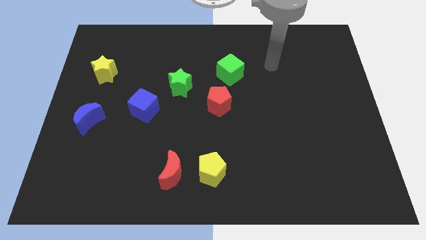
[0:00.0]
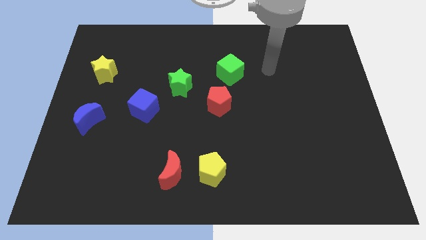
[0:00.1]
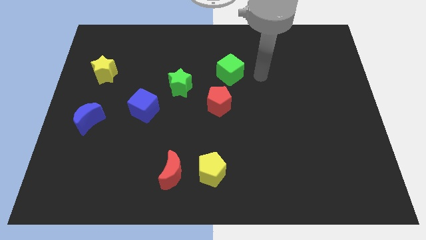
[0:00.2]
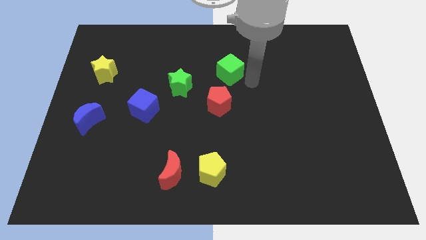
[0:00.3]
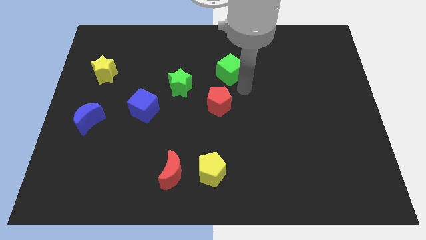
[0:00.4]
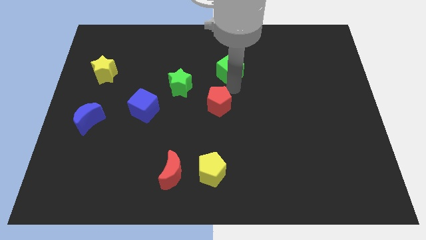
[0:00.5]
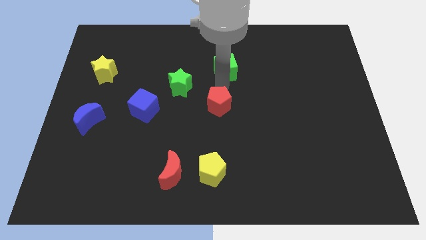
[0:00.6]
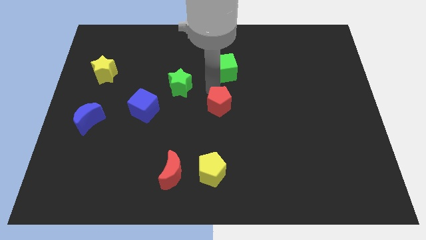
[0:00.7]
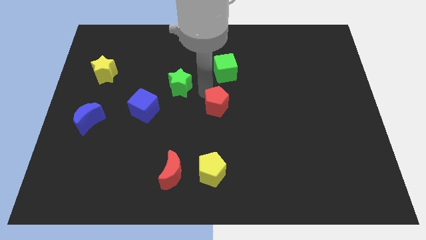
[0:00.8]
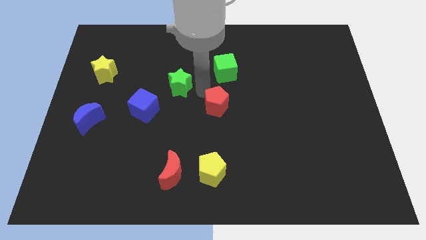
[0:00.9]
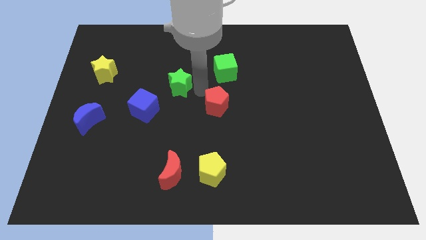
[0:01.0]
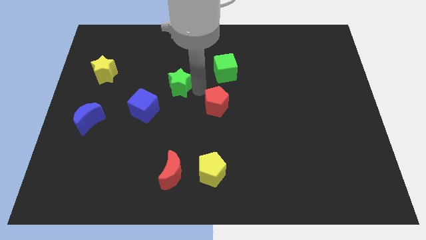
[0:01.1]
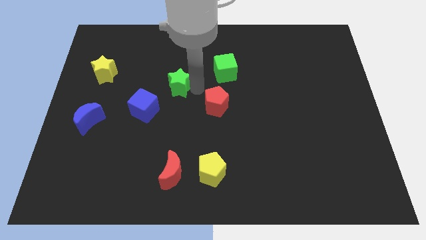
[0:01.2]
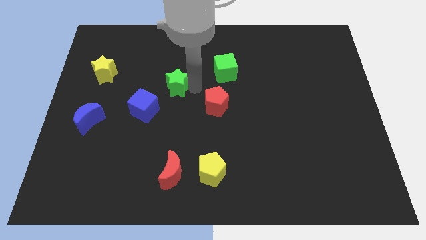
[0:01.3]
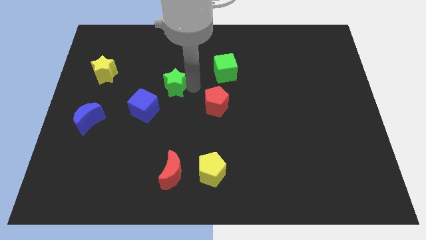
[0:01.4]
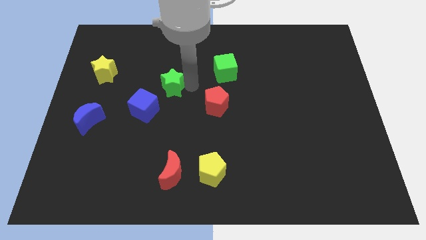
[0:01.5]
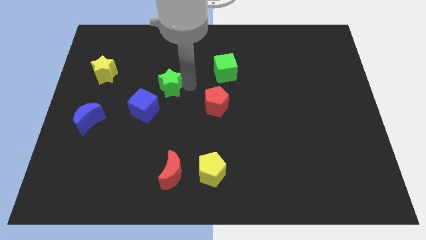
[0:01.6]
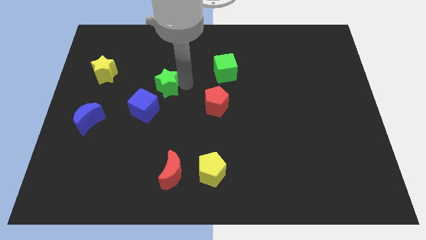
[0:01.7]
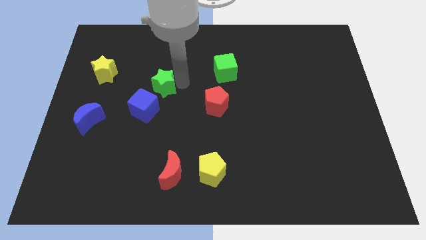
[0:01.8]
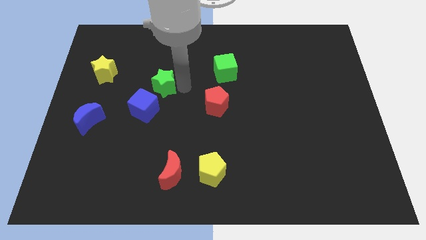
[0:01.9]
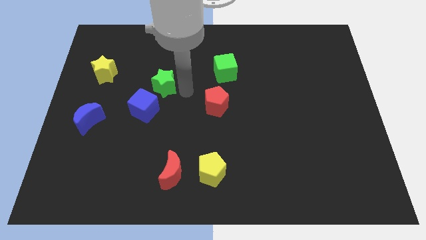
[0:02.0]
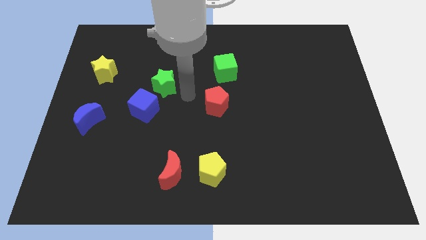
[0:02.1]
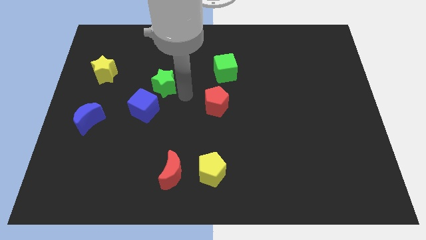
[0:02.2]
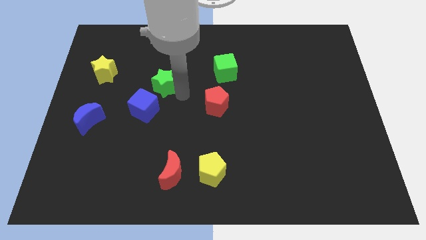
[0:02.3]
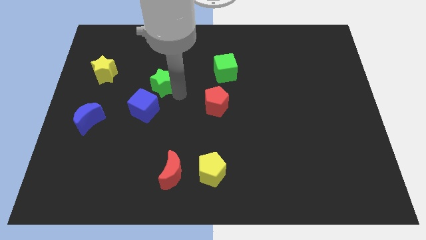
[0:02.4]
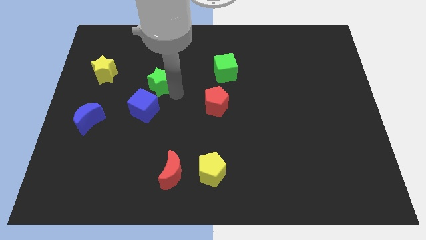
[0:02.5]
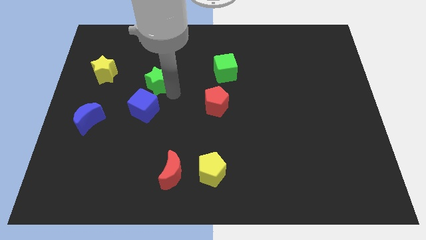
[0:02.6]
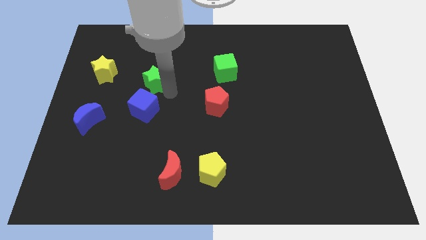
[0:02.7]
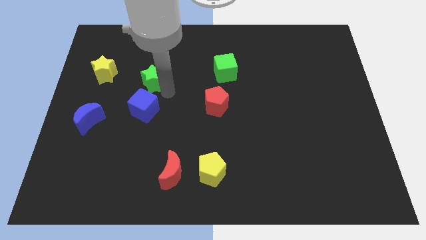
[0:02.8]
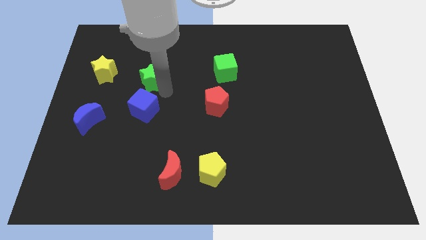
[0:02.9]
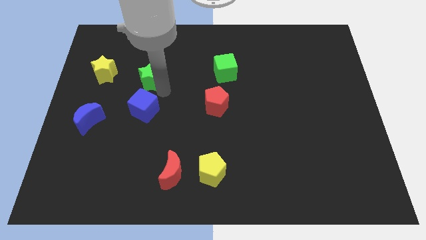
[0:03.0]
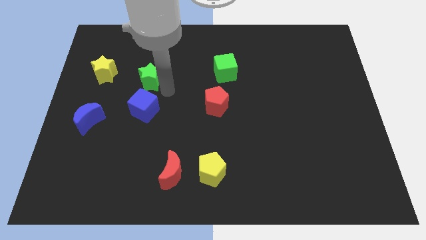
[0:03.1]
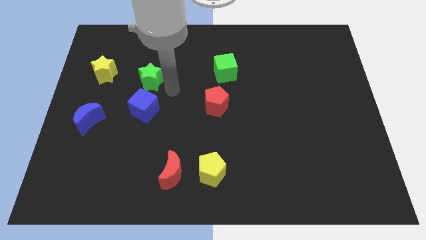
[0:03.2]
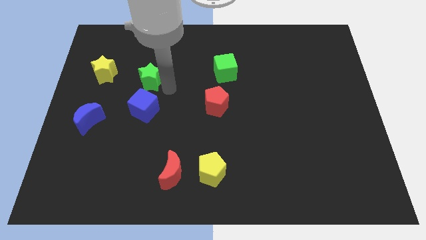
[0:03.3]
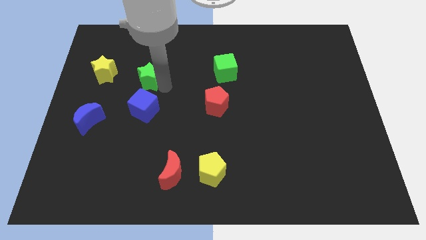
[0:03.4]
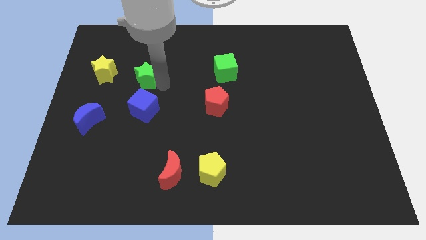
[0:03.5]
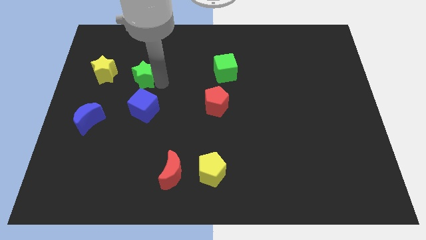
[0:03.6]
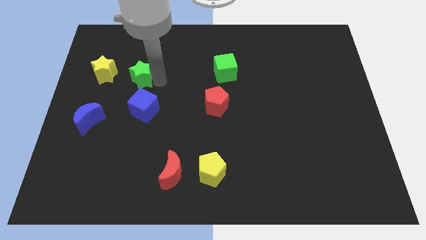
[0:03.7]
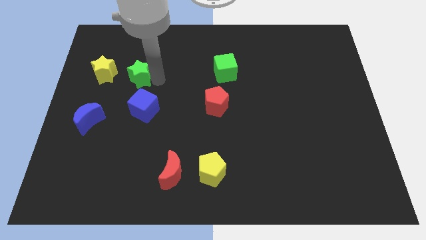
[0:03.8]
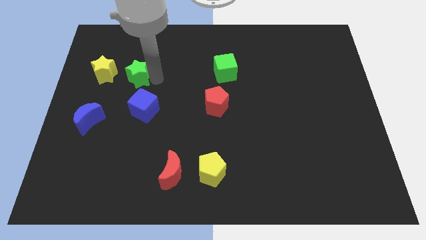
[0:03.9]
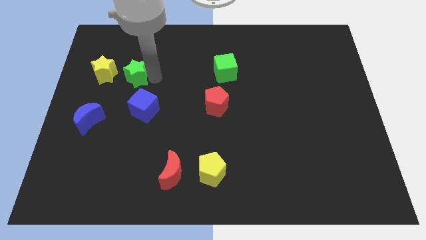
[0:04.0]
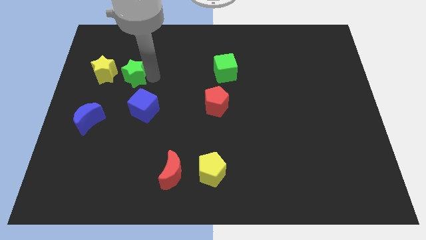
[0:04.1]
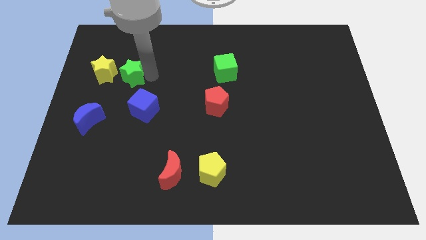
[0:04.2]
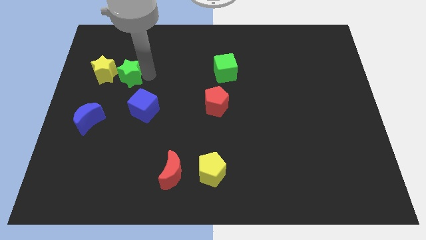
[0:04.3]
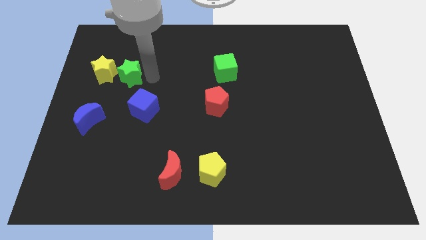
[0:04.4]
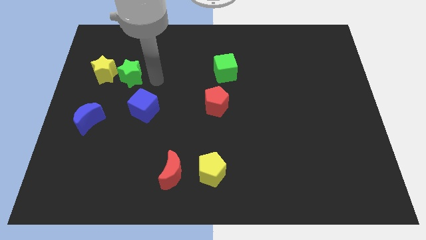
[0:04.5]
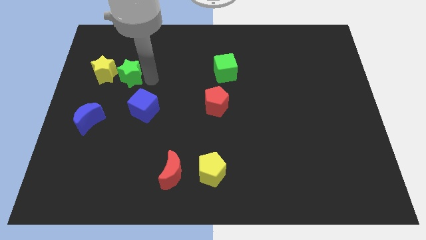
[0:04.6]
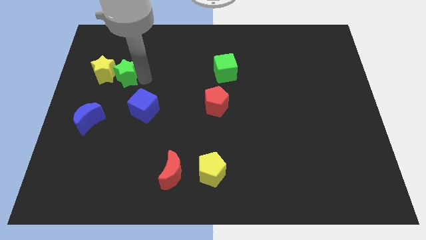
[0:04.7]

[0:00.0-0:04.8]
slide the green star next to the yellow star

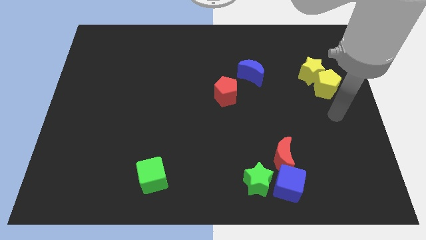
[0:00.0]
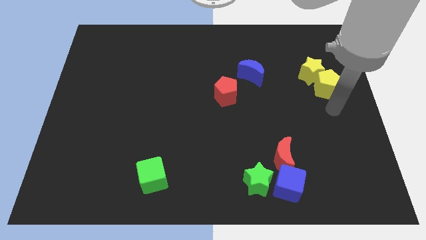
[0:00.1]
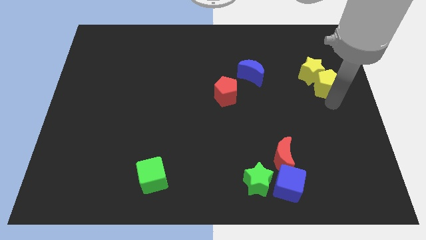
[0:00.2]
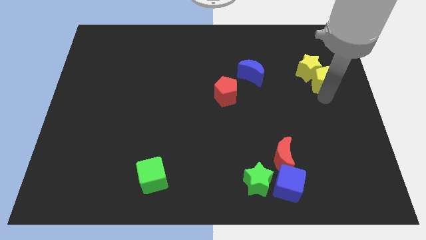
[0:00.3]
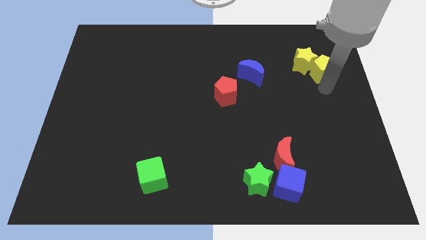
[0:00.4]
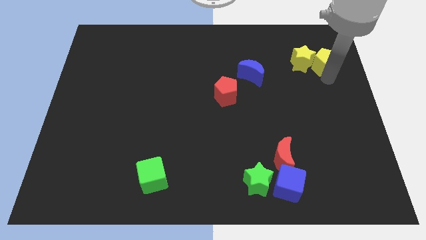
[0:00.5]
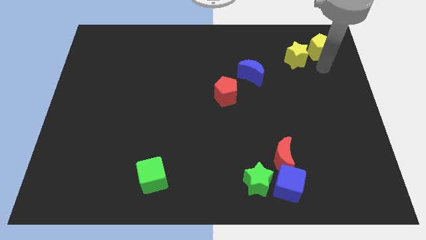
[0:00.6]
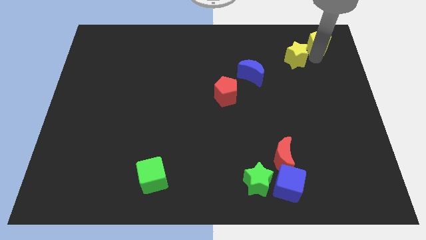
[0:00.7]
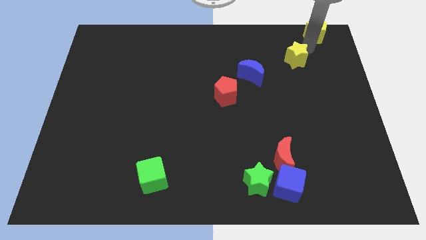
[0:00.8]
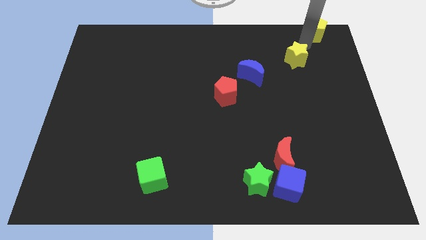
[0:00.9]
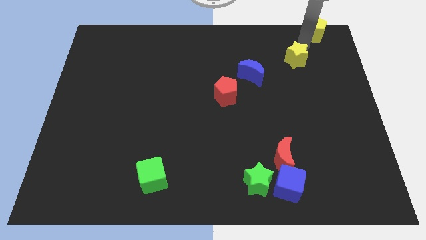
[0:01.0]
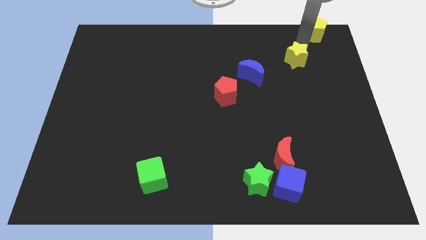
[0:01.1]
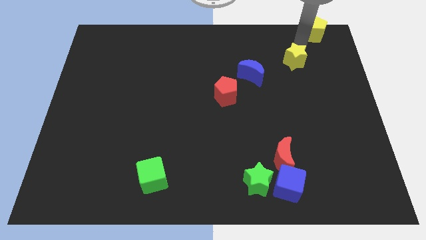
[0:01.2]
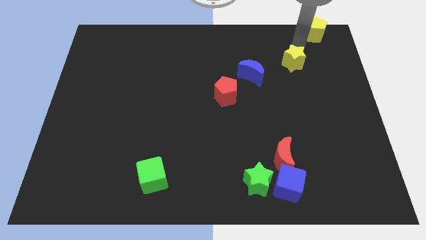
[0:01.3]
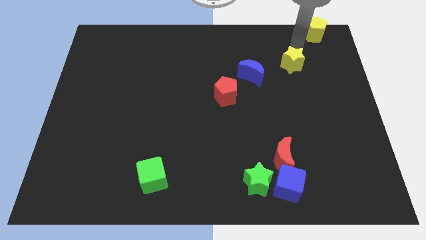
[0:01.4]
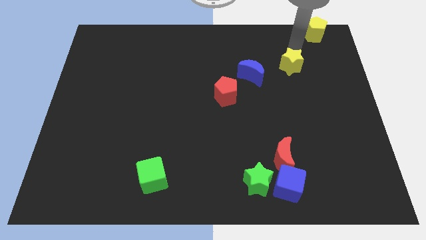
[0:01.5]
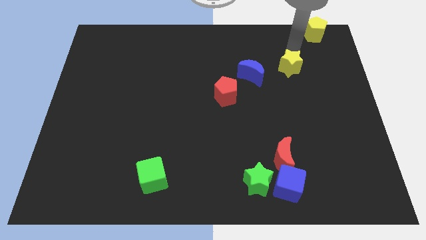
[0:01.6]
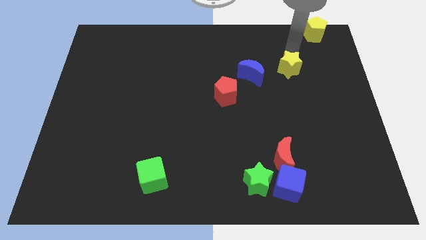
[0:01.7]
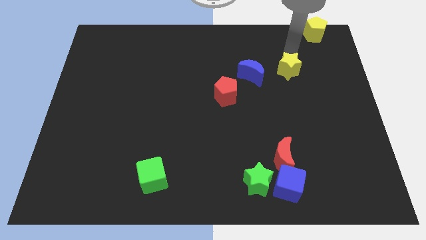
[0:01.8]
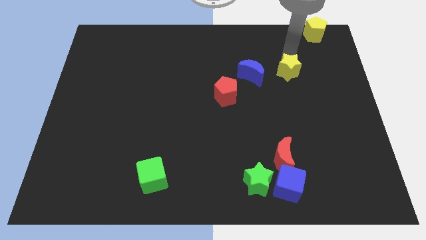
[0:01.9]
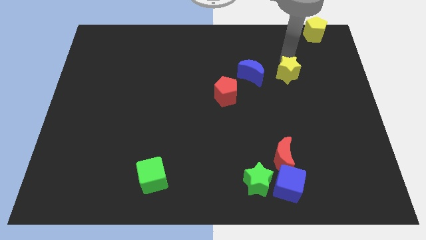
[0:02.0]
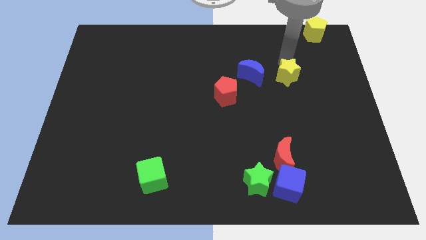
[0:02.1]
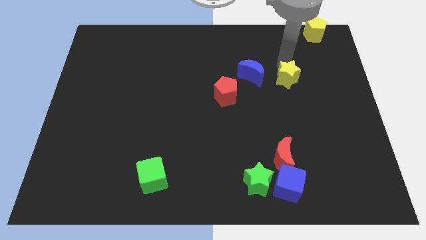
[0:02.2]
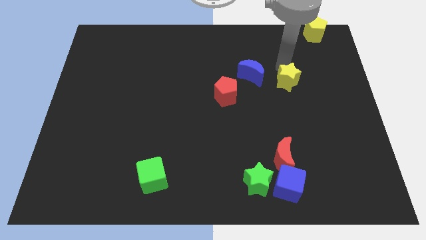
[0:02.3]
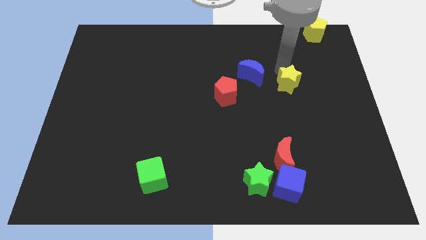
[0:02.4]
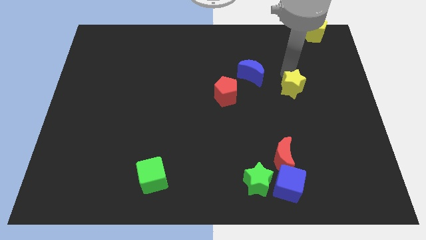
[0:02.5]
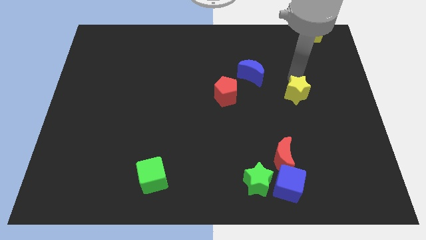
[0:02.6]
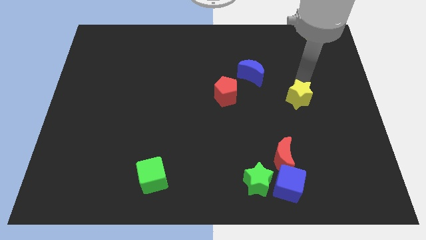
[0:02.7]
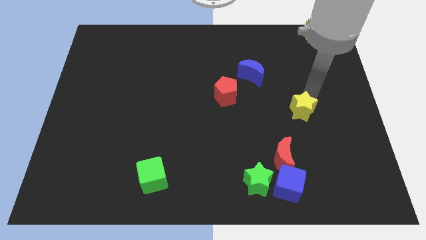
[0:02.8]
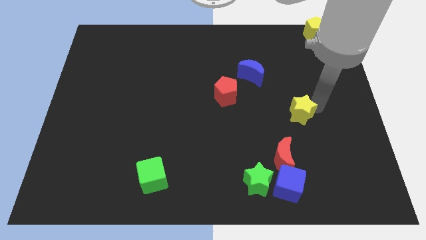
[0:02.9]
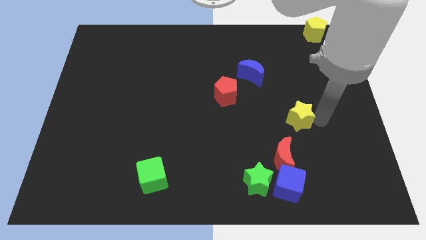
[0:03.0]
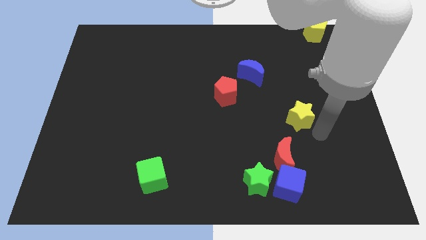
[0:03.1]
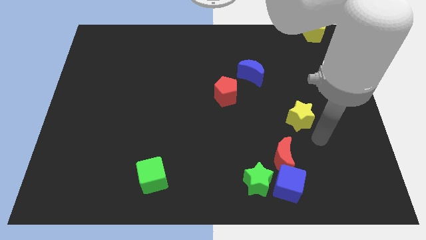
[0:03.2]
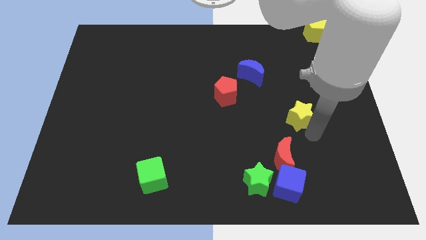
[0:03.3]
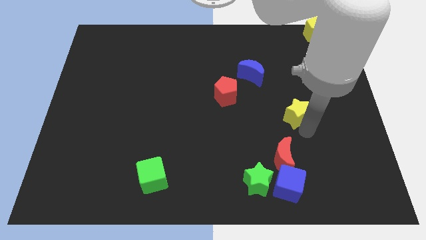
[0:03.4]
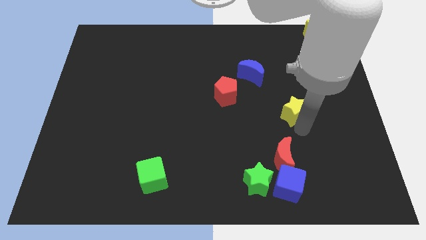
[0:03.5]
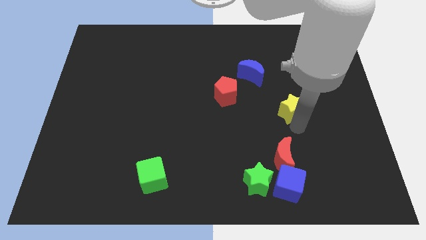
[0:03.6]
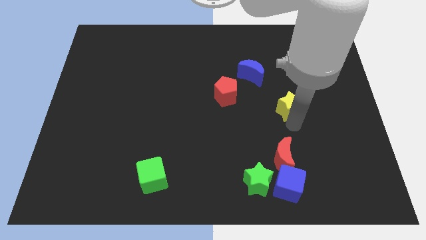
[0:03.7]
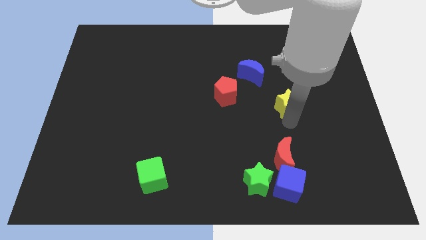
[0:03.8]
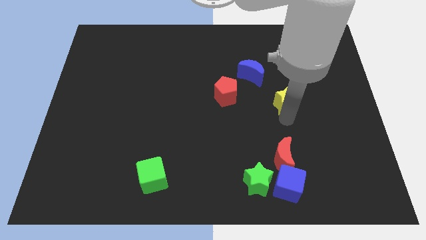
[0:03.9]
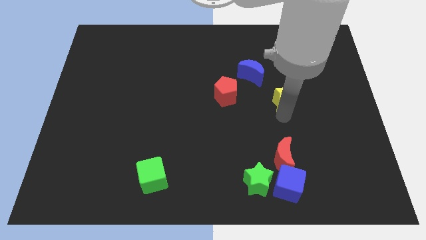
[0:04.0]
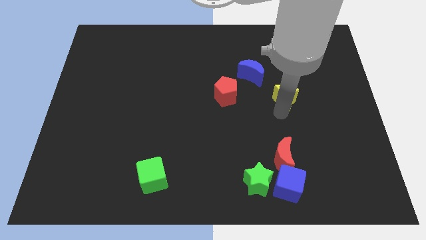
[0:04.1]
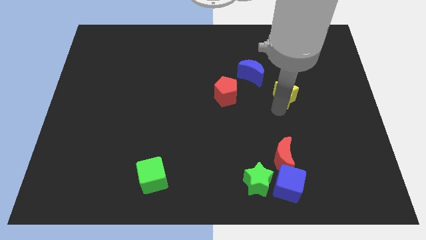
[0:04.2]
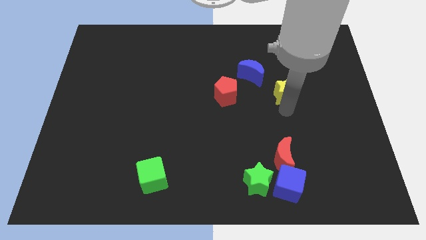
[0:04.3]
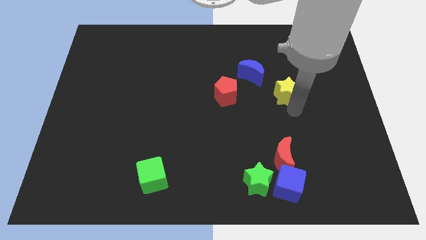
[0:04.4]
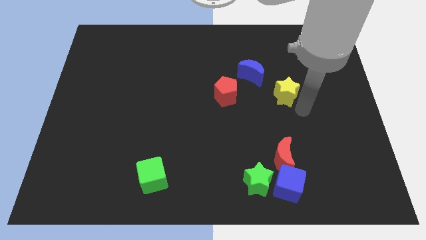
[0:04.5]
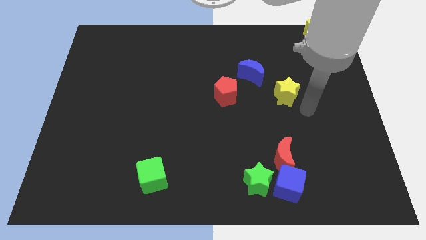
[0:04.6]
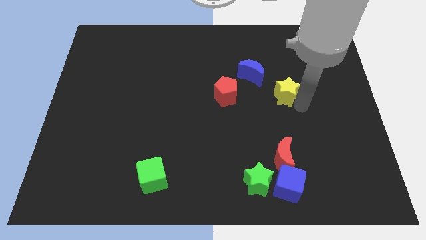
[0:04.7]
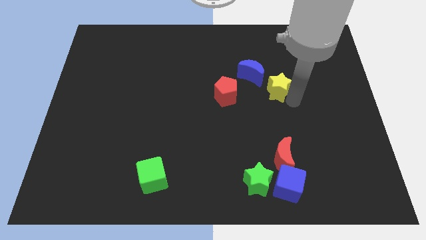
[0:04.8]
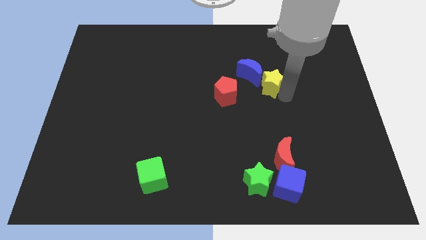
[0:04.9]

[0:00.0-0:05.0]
put the yellow star next to the blue moon
